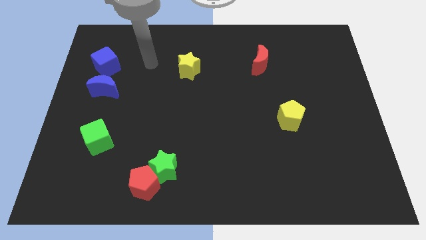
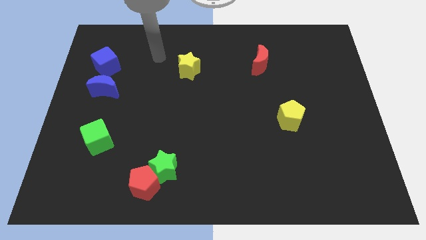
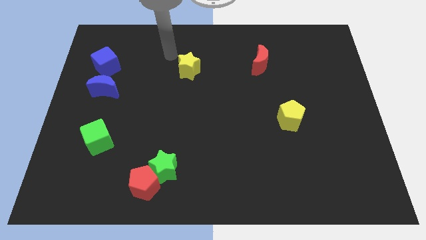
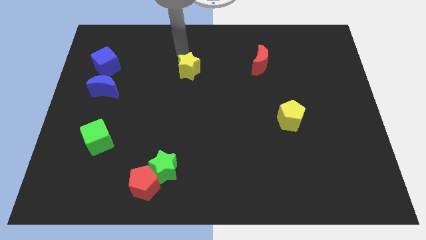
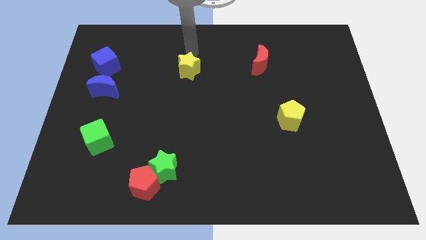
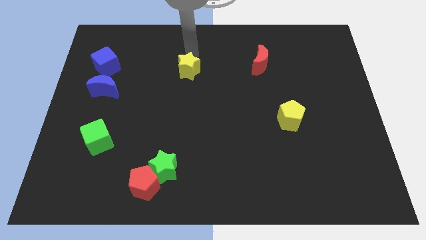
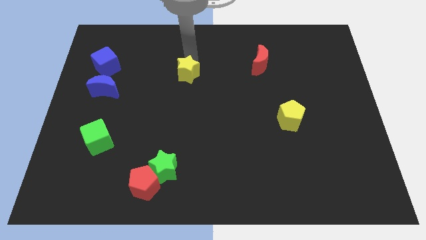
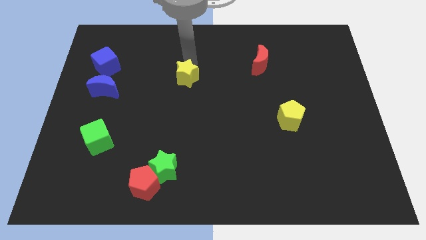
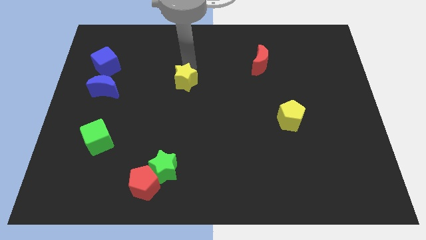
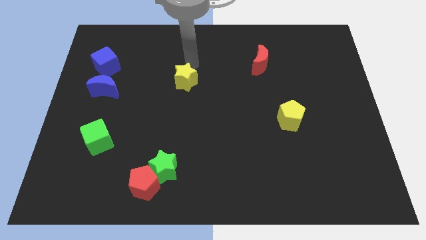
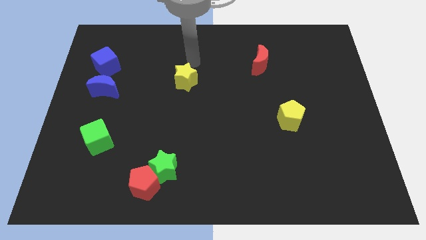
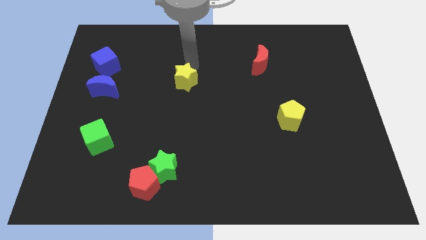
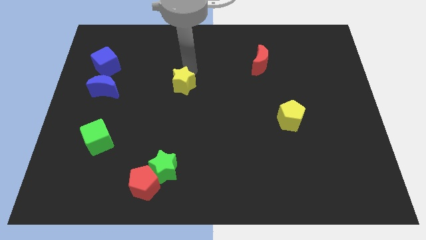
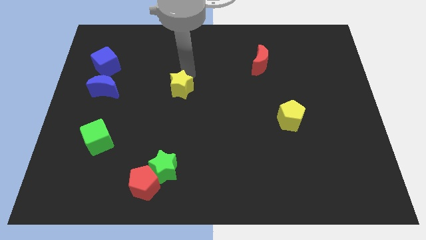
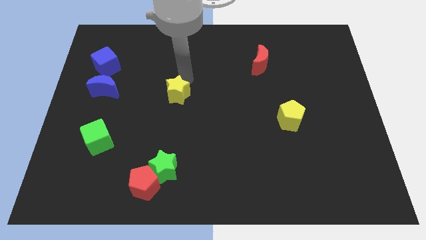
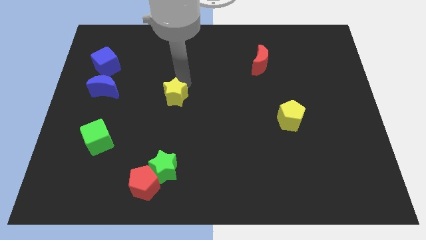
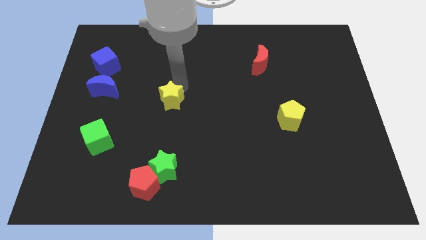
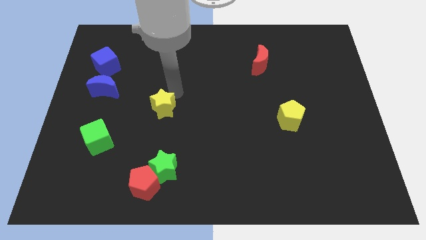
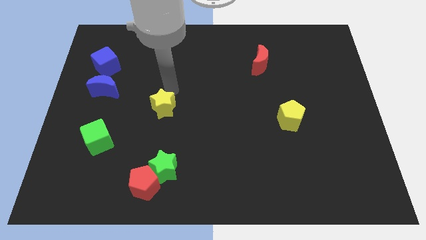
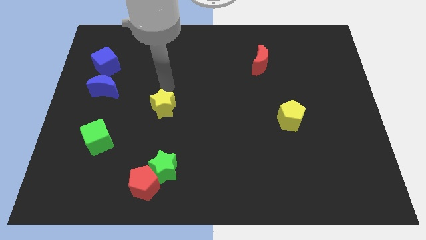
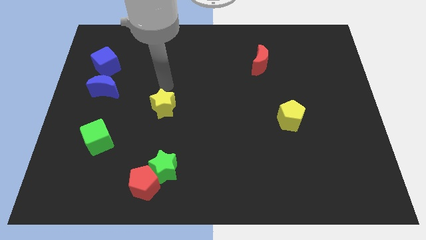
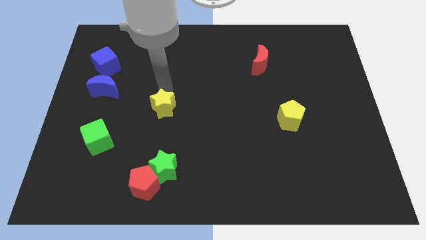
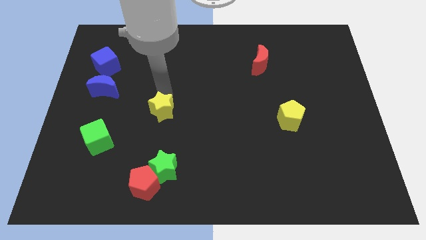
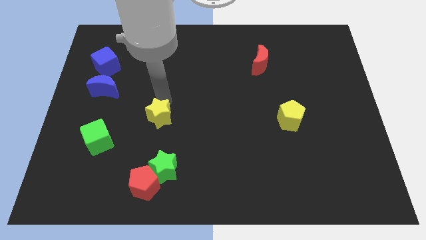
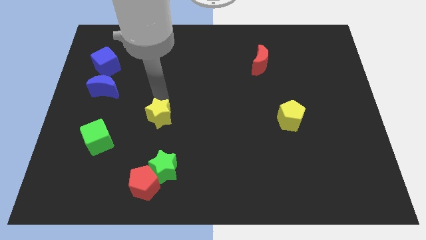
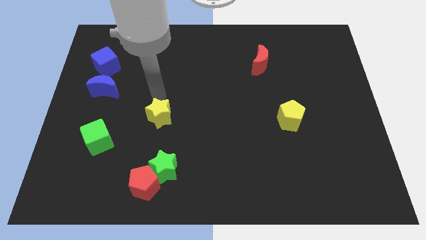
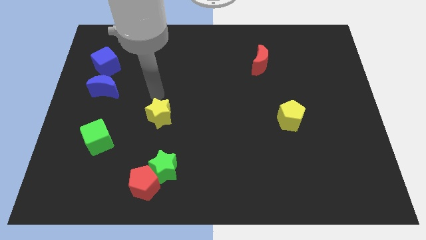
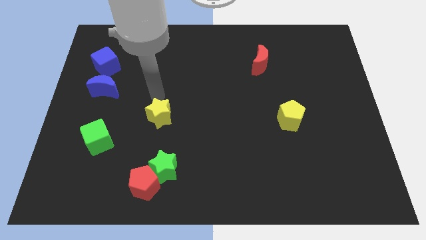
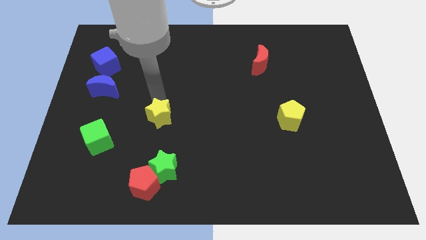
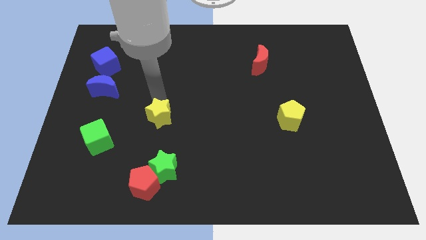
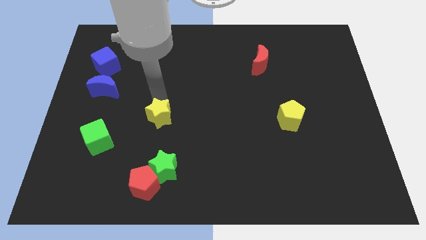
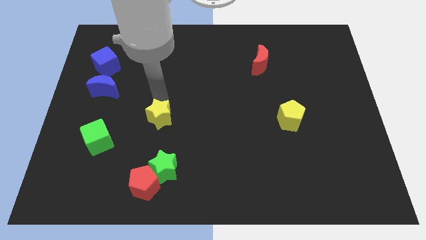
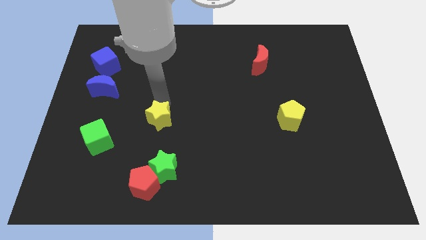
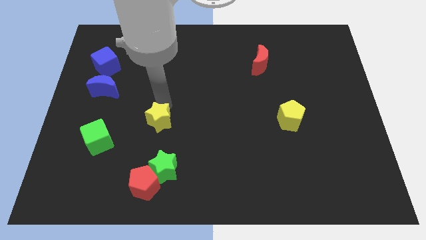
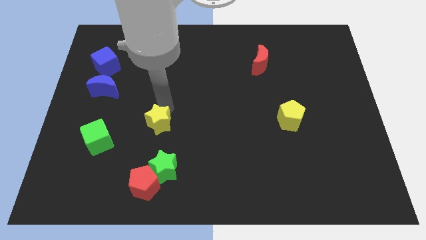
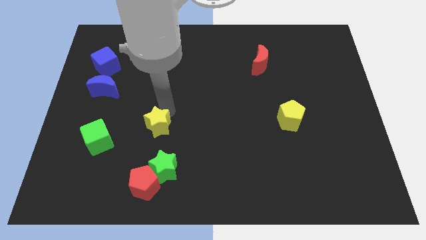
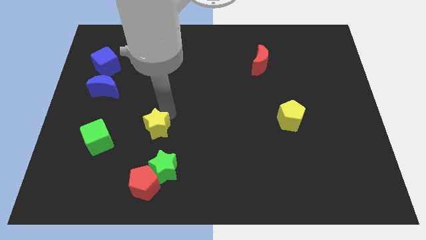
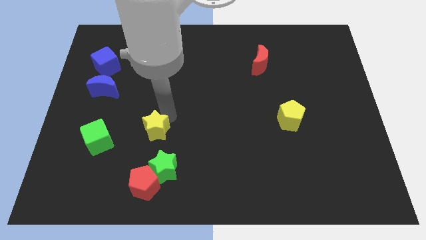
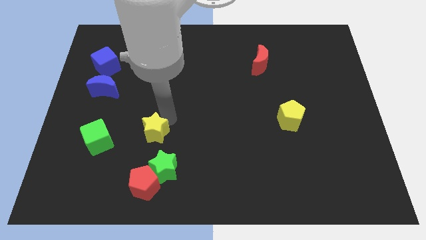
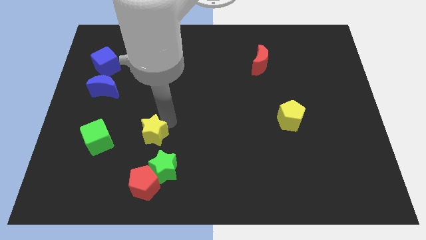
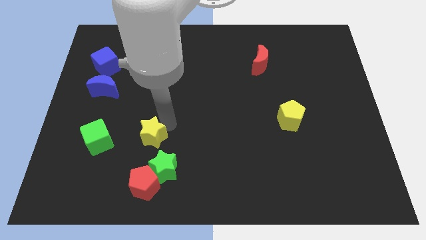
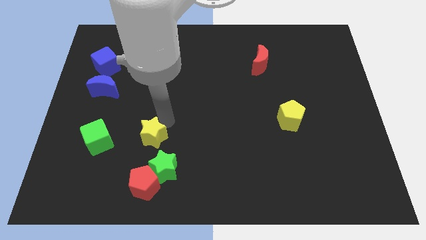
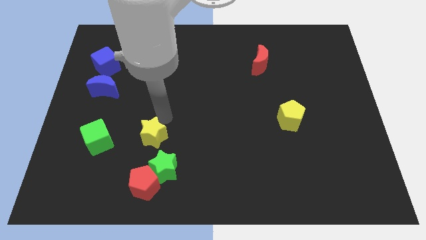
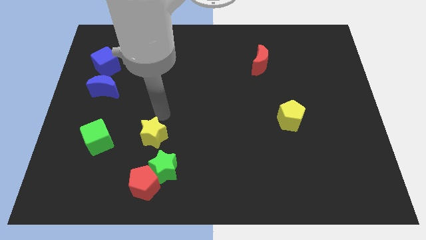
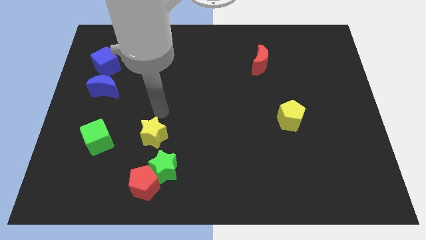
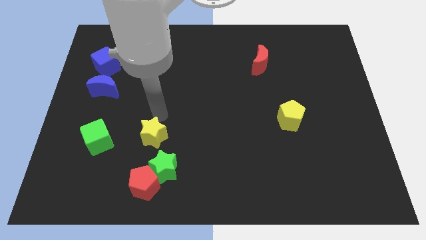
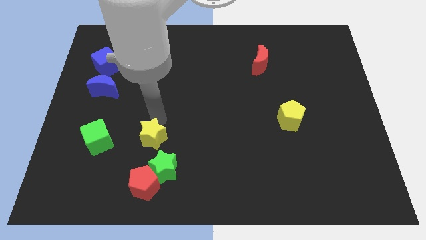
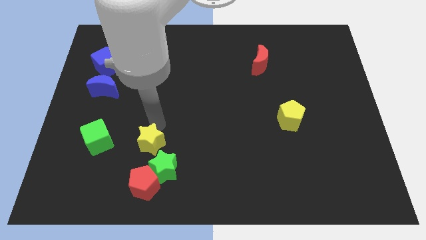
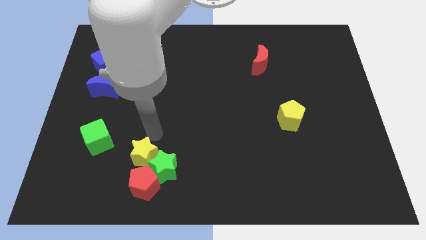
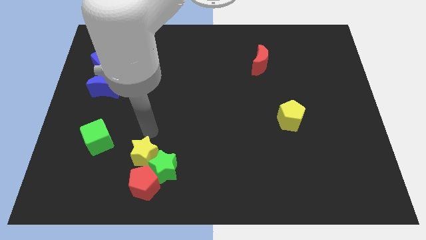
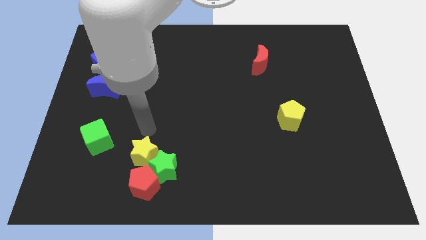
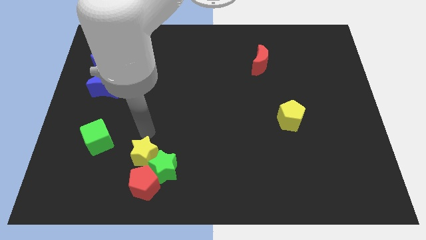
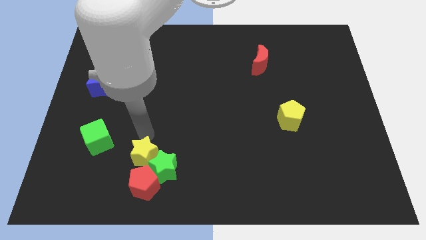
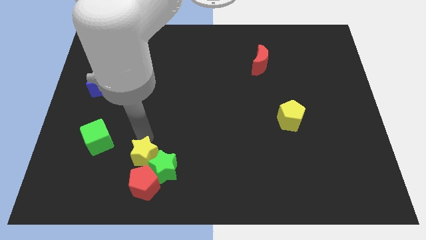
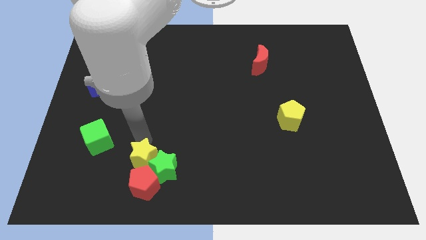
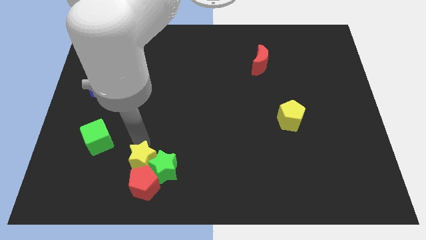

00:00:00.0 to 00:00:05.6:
slide the yellow star next to the red pentagon

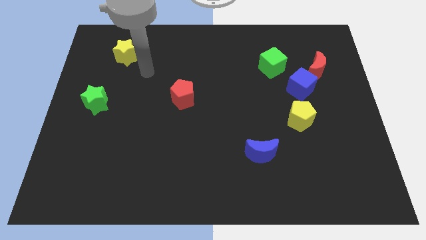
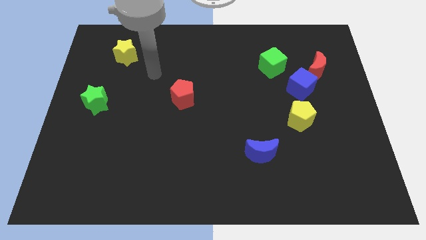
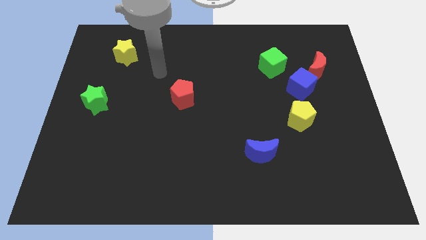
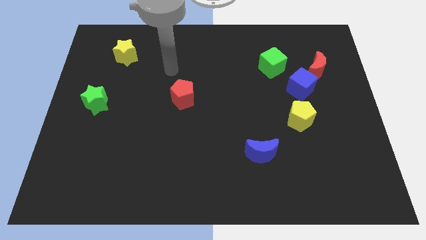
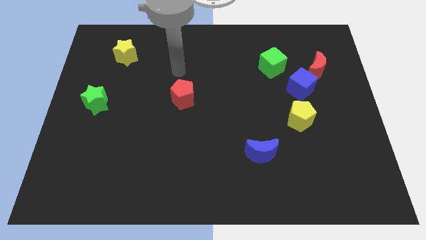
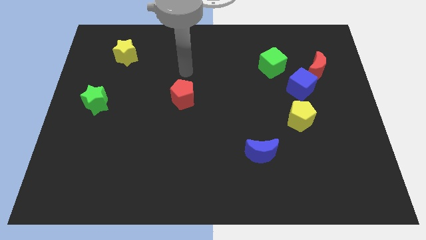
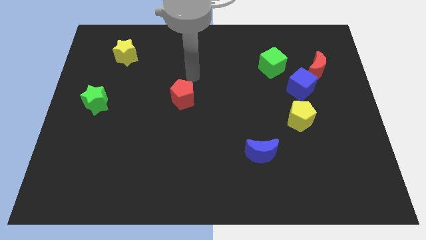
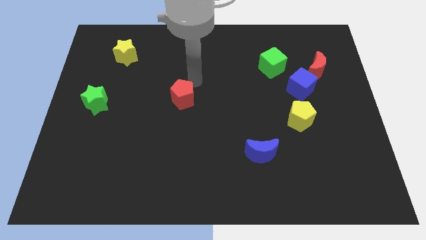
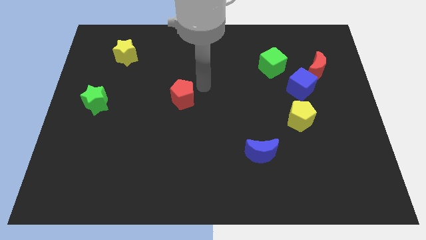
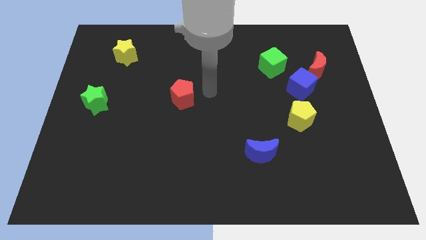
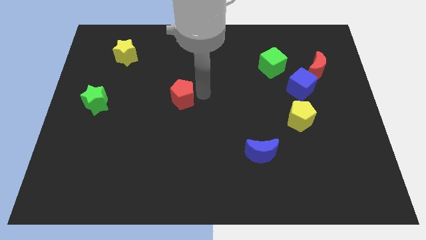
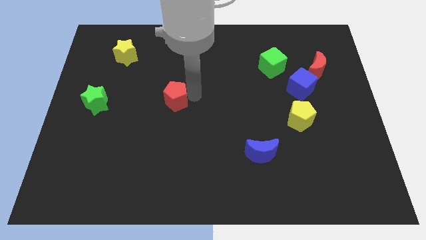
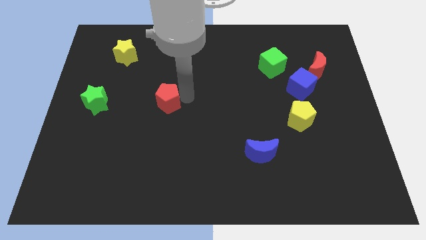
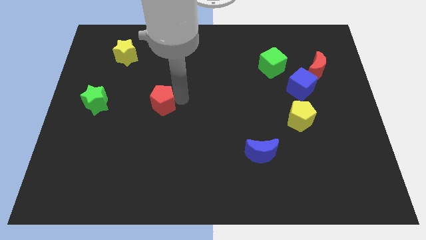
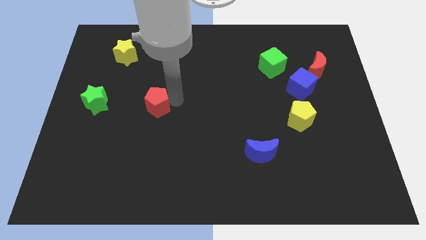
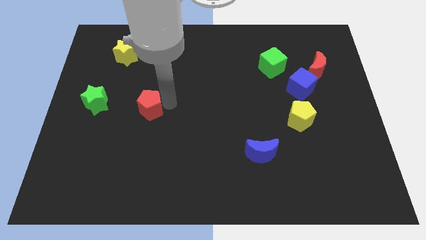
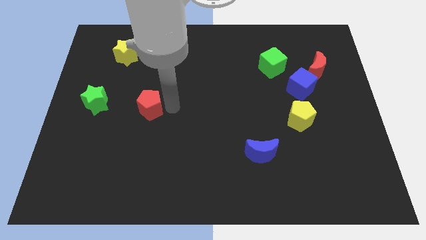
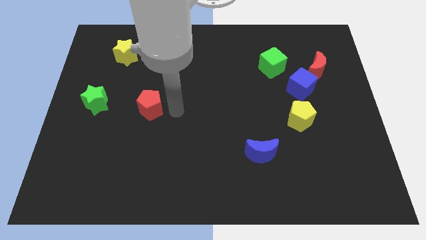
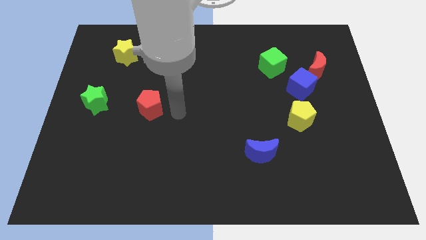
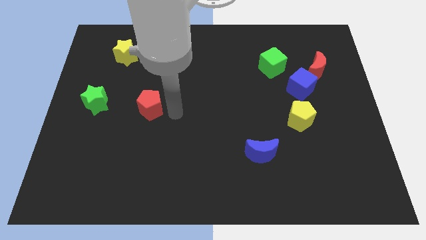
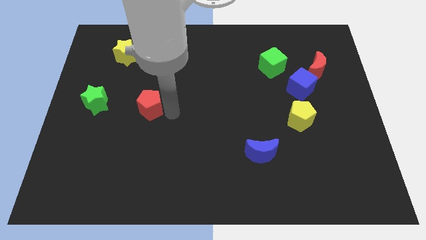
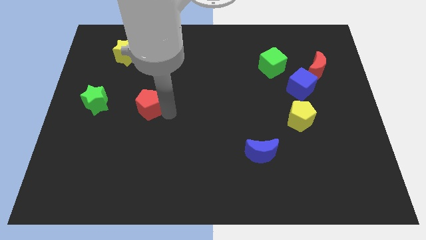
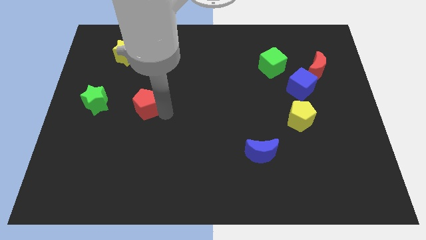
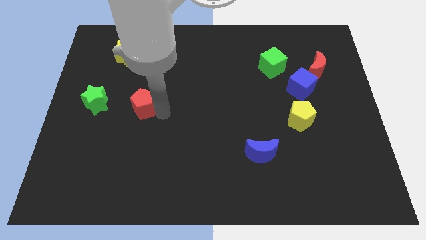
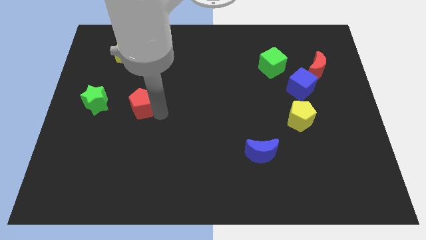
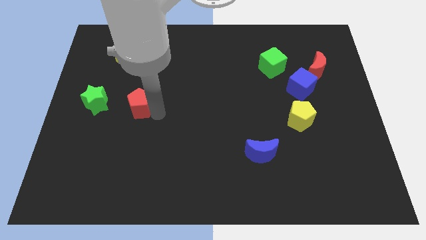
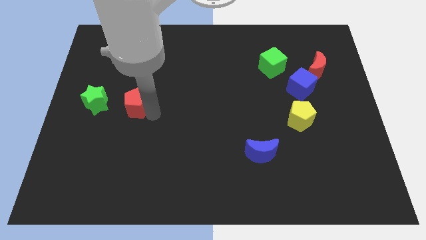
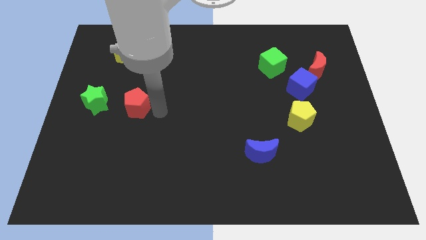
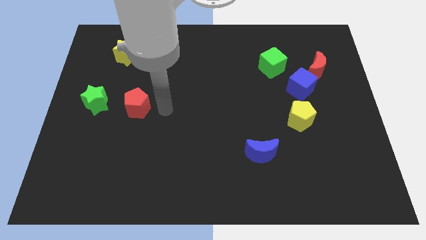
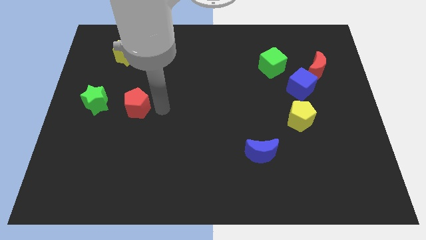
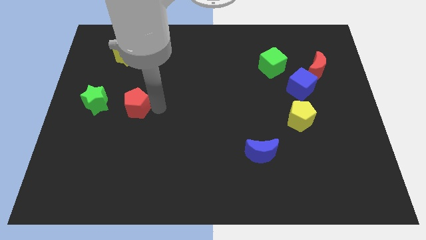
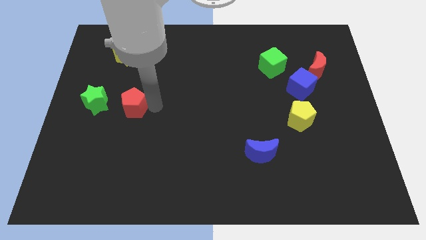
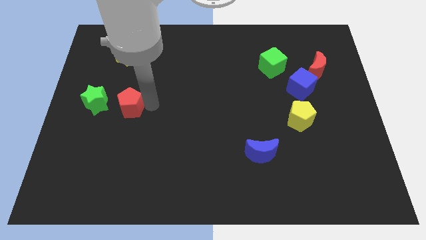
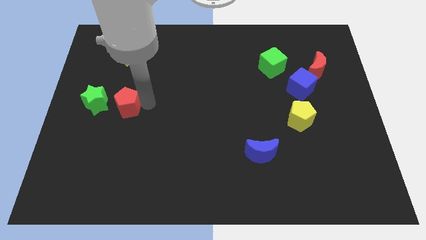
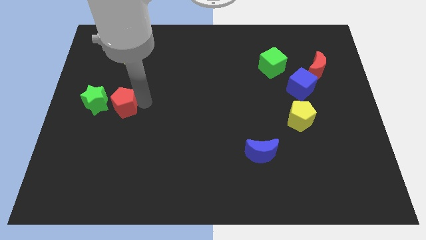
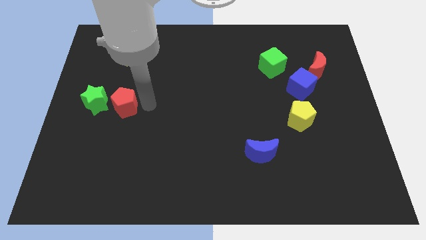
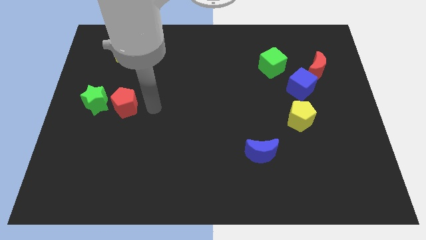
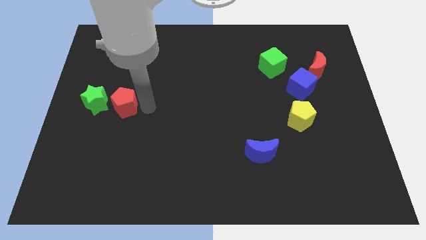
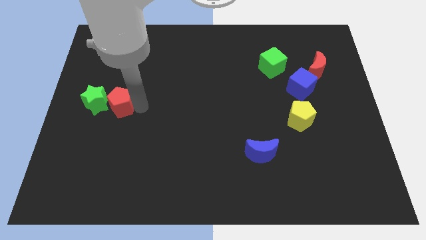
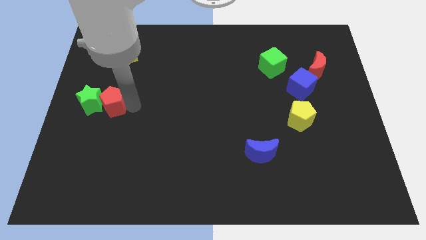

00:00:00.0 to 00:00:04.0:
put the red pentagon to the green star
